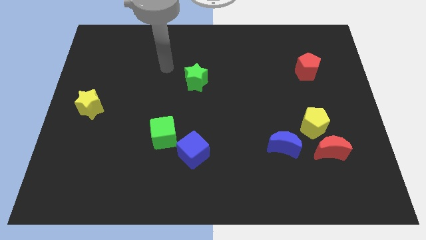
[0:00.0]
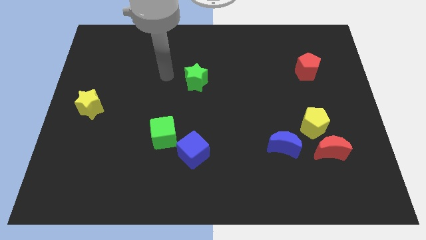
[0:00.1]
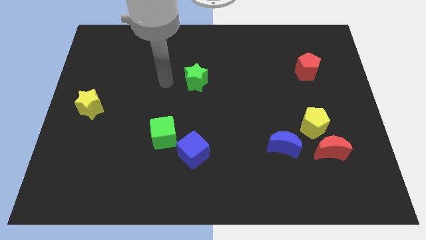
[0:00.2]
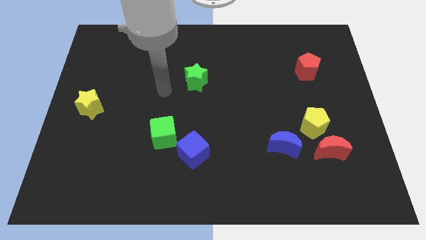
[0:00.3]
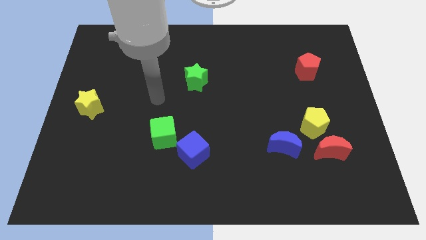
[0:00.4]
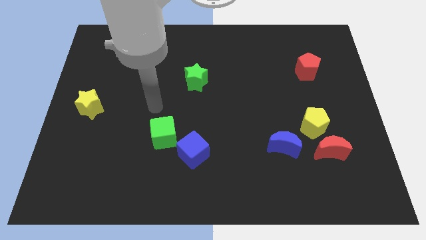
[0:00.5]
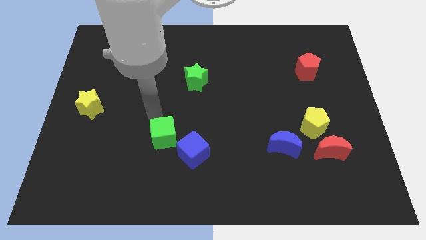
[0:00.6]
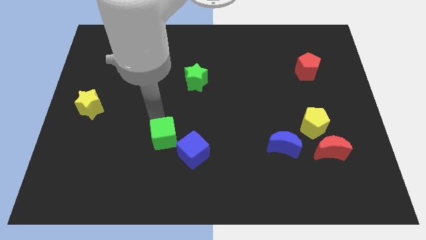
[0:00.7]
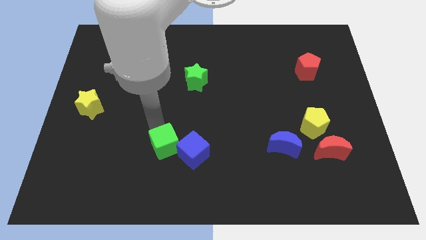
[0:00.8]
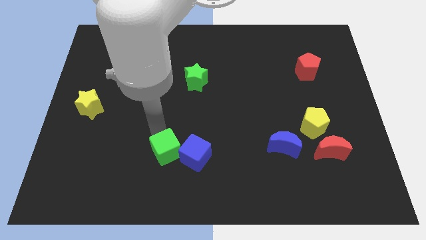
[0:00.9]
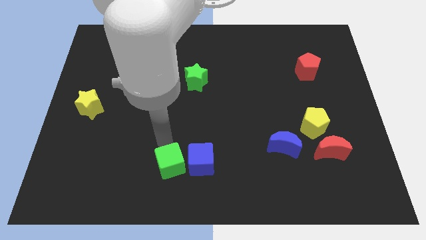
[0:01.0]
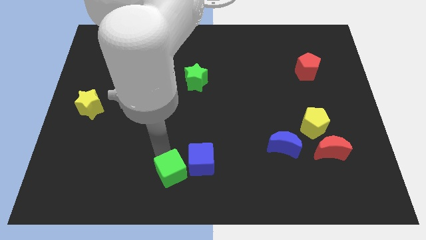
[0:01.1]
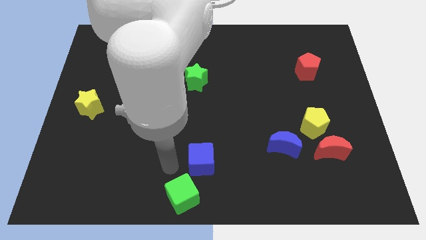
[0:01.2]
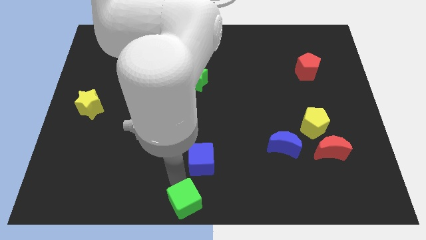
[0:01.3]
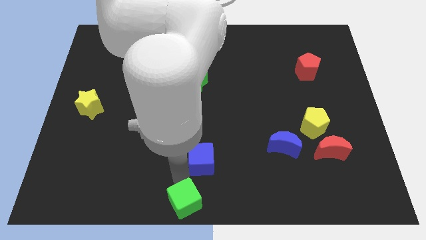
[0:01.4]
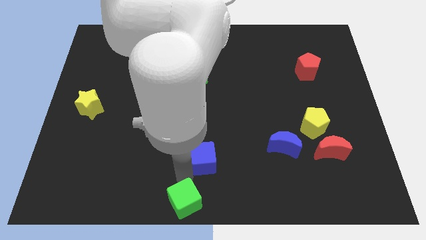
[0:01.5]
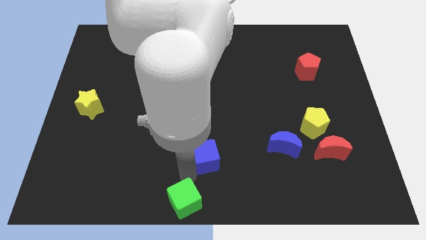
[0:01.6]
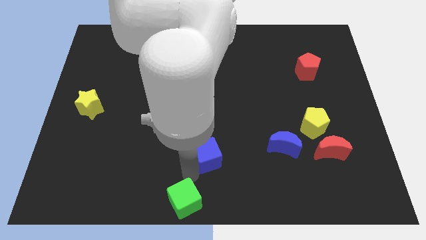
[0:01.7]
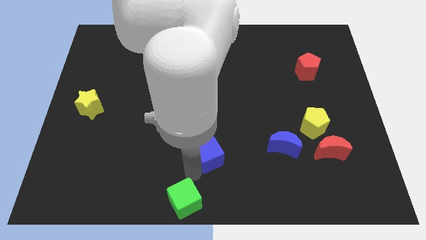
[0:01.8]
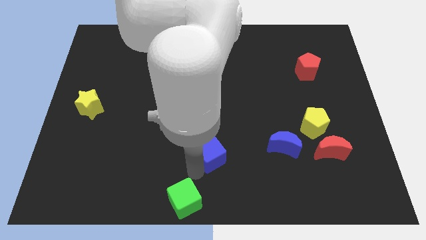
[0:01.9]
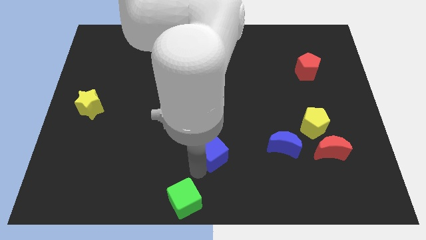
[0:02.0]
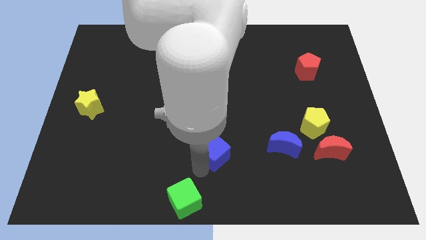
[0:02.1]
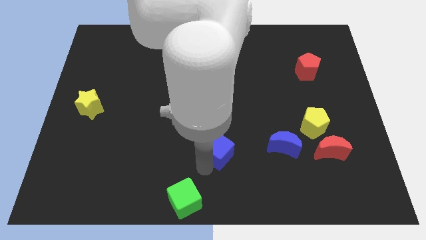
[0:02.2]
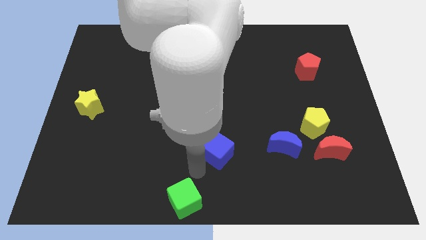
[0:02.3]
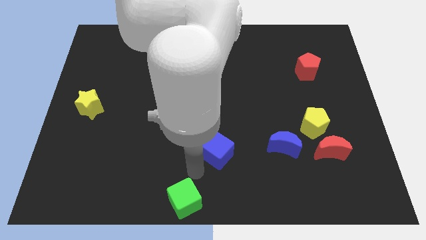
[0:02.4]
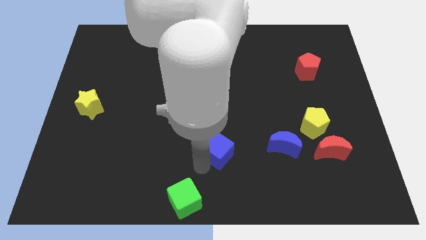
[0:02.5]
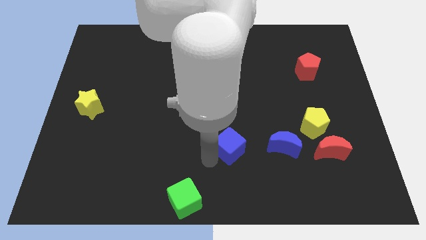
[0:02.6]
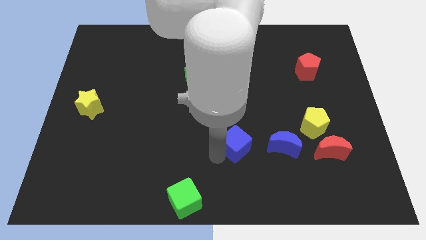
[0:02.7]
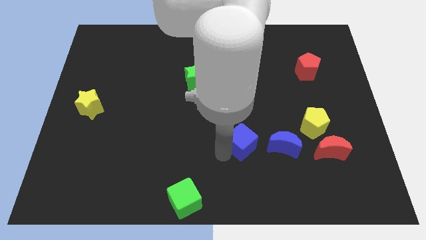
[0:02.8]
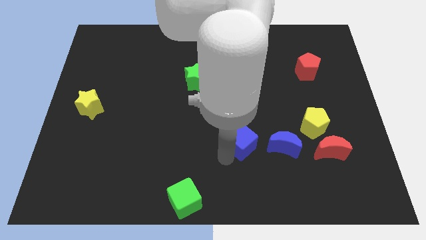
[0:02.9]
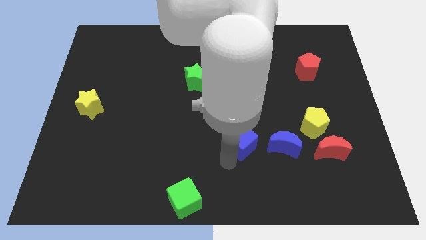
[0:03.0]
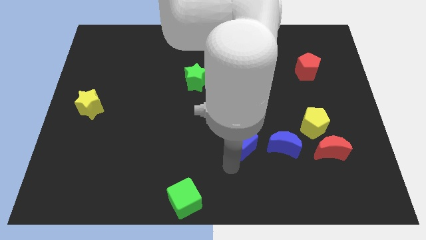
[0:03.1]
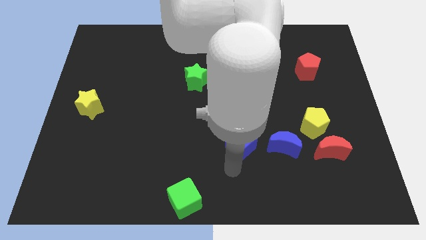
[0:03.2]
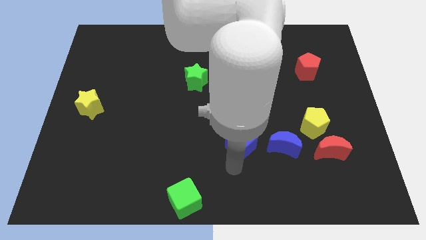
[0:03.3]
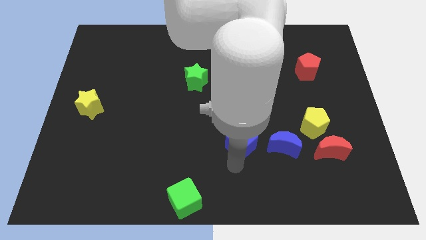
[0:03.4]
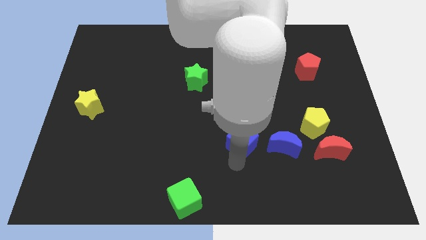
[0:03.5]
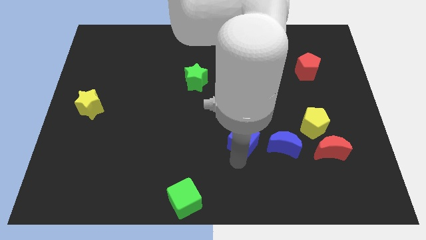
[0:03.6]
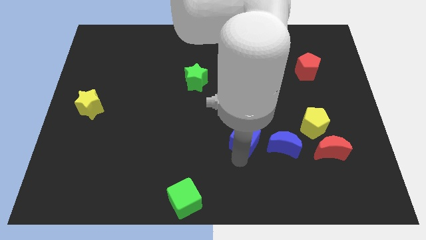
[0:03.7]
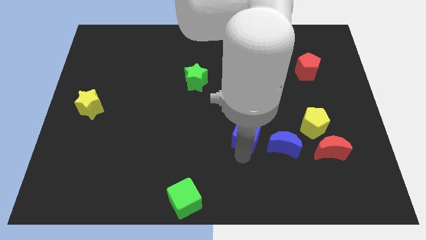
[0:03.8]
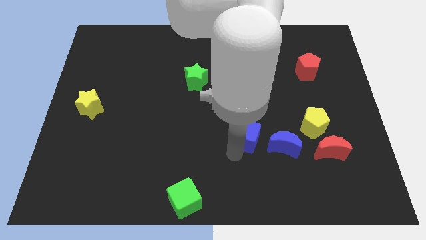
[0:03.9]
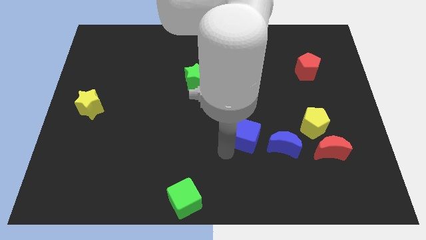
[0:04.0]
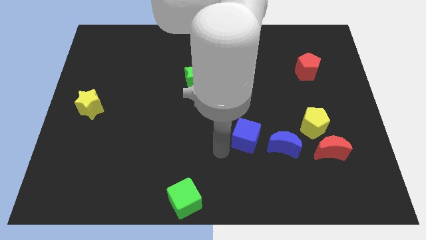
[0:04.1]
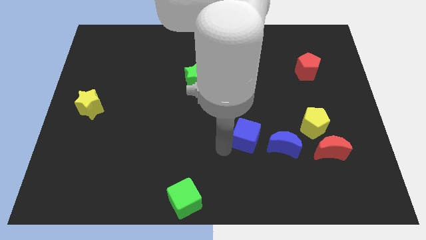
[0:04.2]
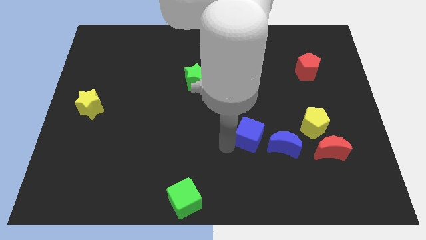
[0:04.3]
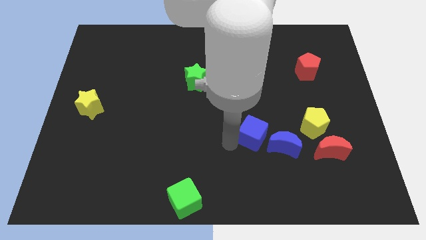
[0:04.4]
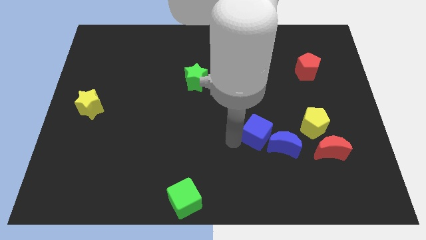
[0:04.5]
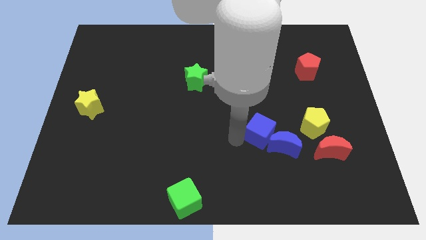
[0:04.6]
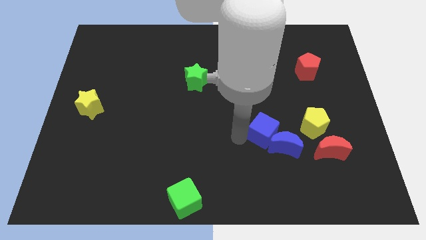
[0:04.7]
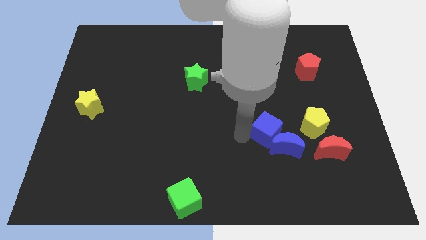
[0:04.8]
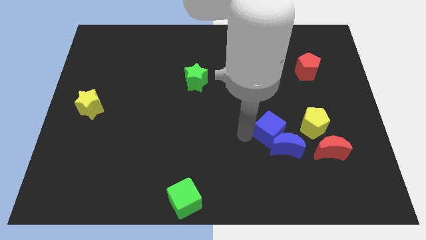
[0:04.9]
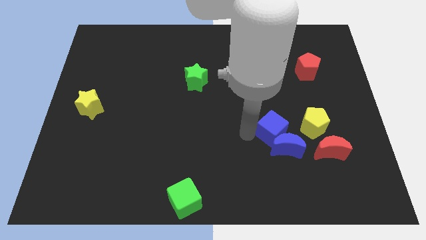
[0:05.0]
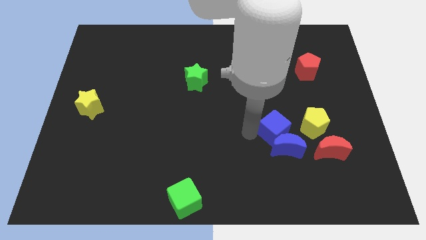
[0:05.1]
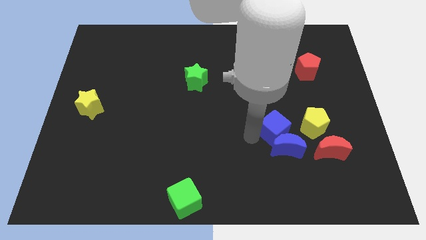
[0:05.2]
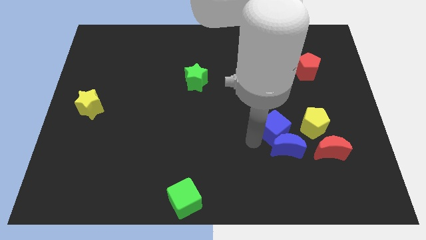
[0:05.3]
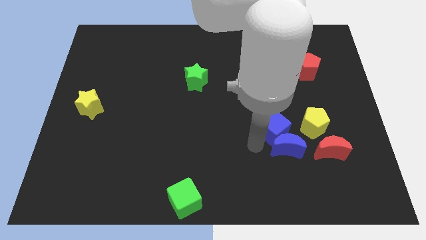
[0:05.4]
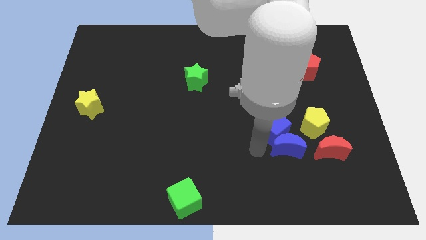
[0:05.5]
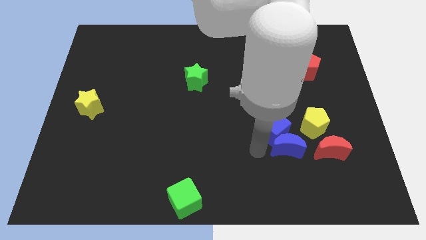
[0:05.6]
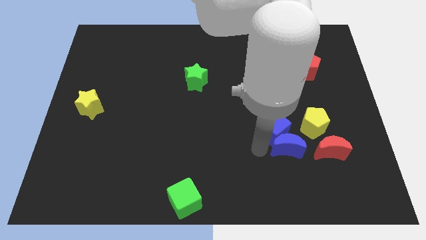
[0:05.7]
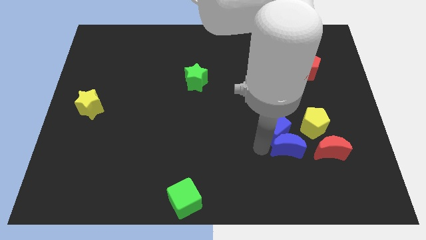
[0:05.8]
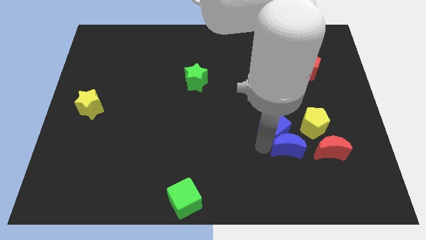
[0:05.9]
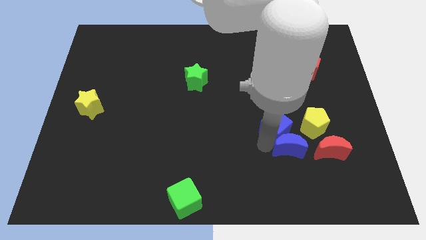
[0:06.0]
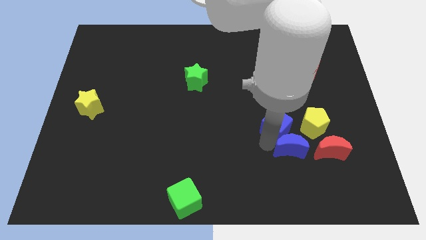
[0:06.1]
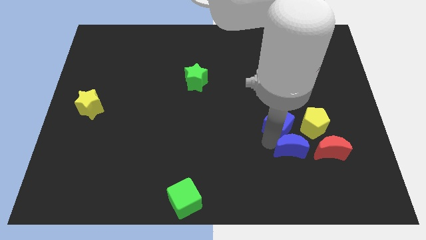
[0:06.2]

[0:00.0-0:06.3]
put the blue cube to the top left side of the red moon

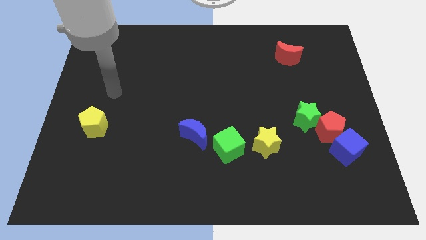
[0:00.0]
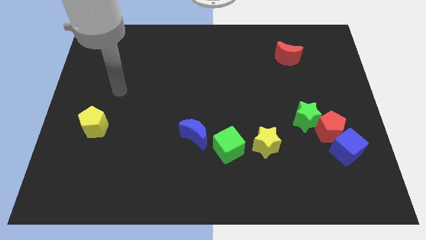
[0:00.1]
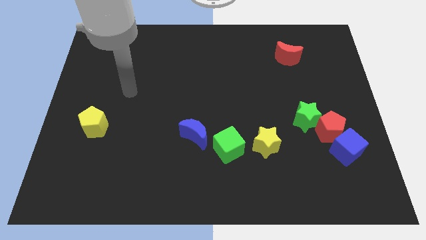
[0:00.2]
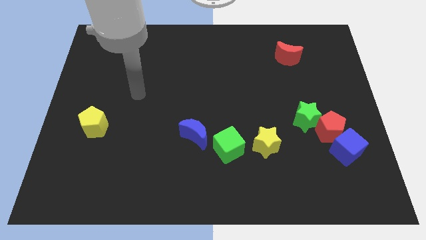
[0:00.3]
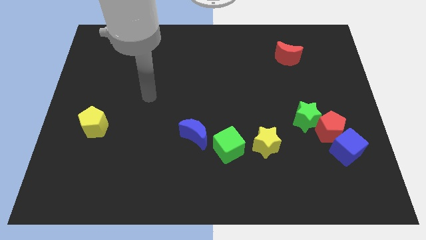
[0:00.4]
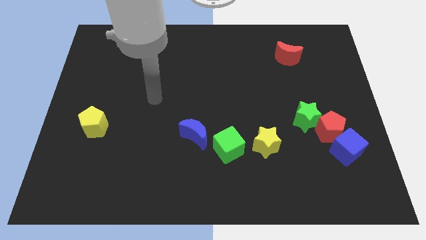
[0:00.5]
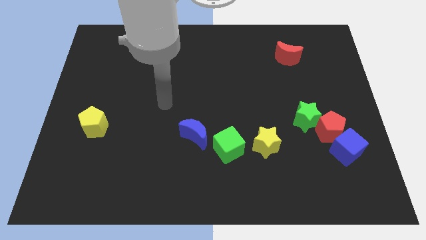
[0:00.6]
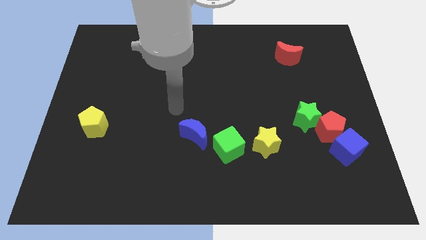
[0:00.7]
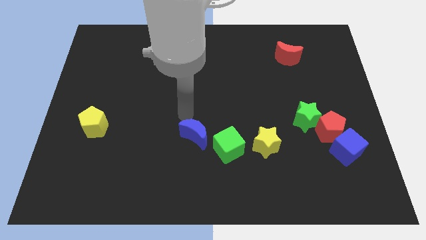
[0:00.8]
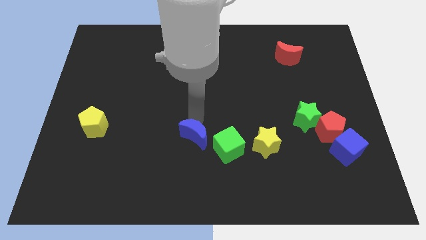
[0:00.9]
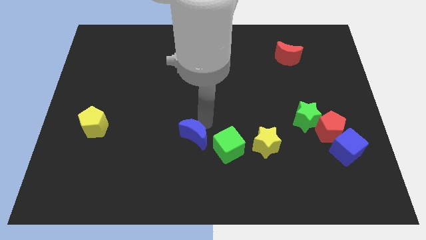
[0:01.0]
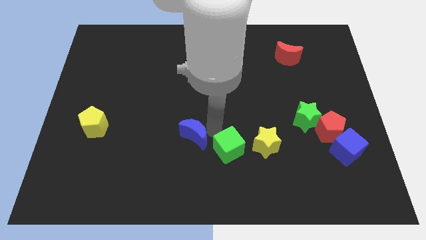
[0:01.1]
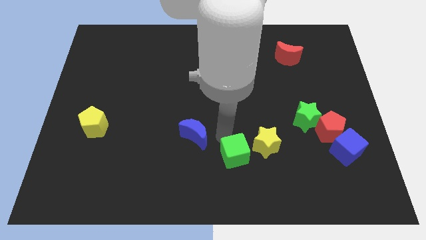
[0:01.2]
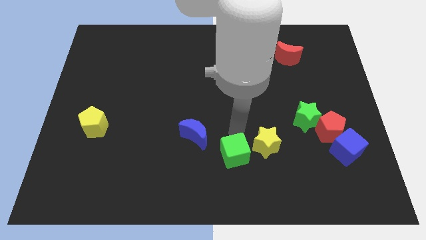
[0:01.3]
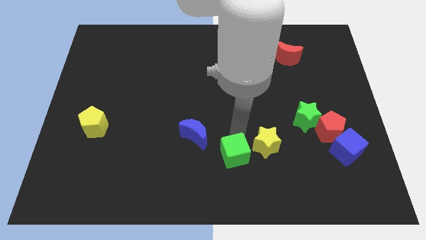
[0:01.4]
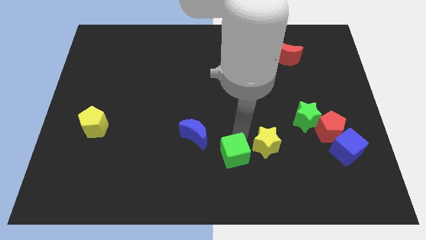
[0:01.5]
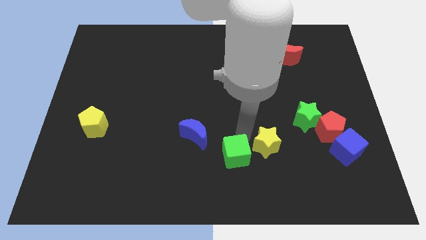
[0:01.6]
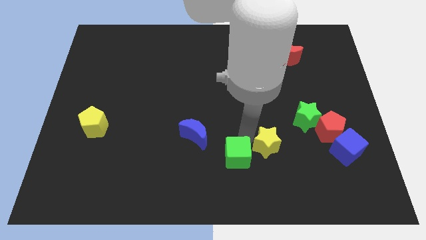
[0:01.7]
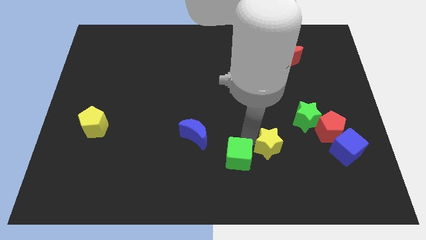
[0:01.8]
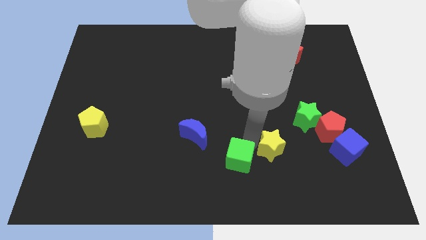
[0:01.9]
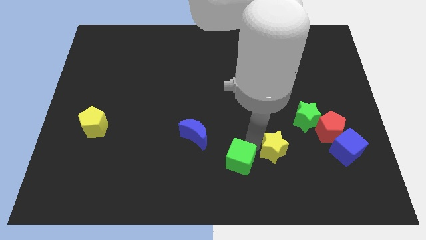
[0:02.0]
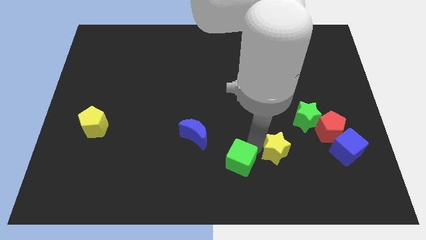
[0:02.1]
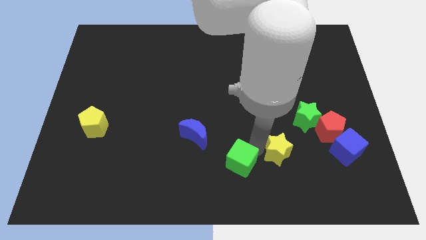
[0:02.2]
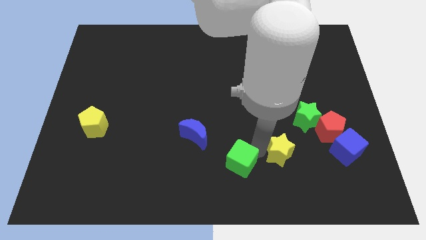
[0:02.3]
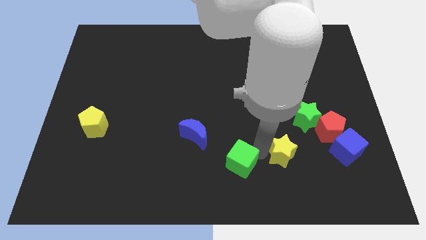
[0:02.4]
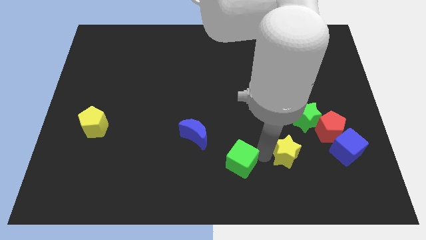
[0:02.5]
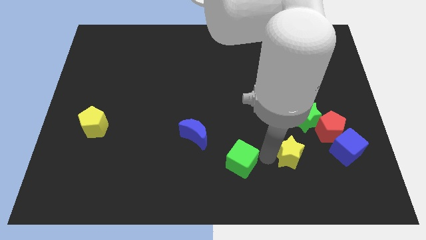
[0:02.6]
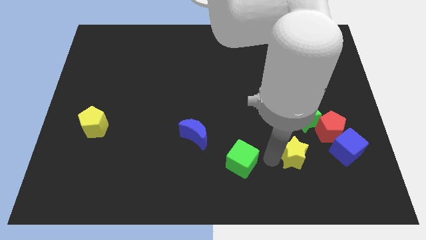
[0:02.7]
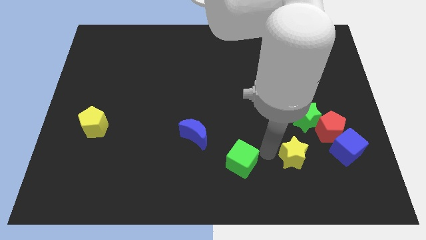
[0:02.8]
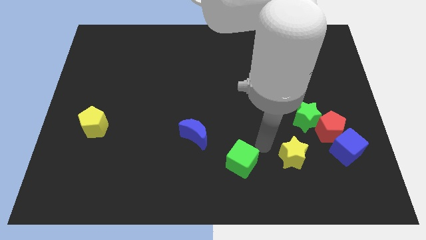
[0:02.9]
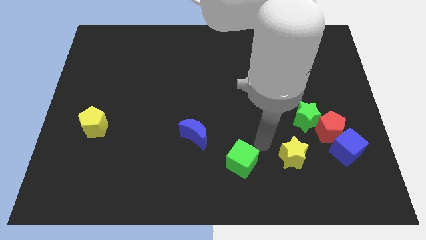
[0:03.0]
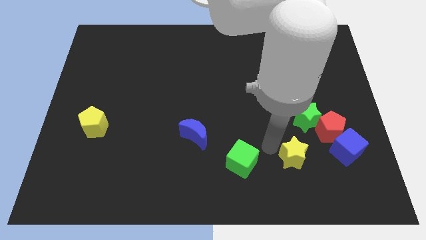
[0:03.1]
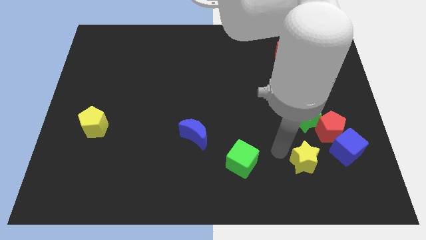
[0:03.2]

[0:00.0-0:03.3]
put the yellow star to the bottom left of the blue cube
